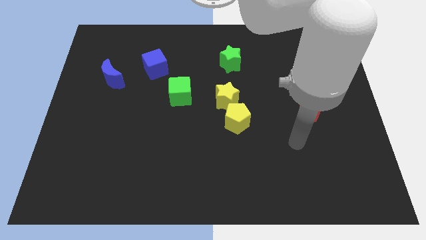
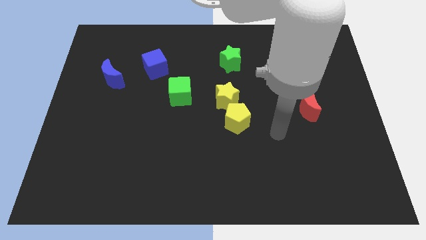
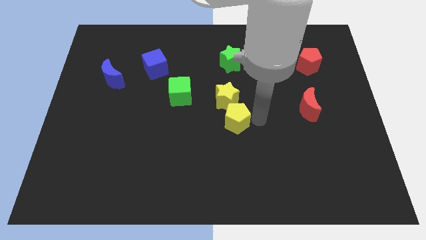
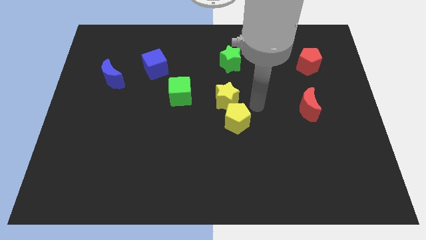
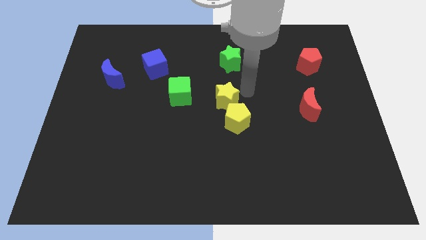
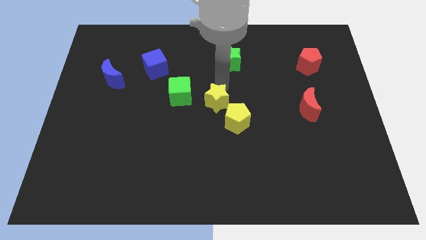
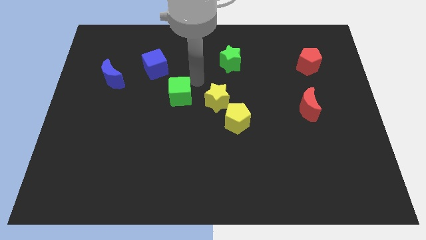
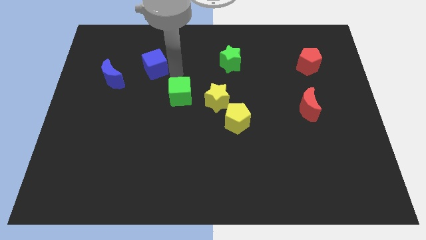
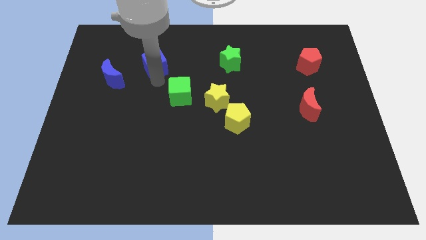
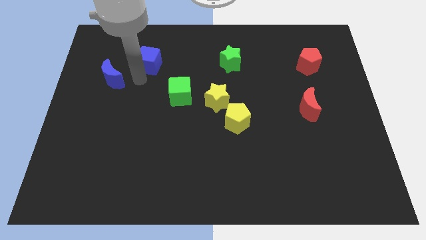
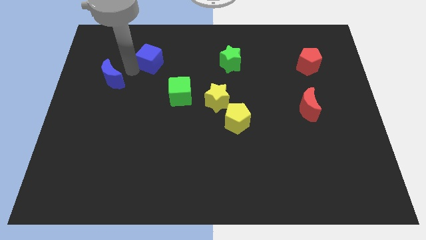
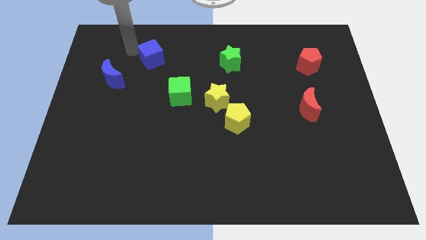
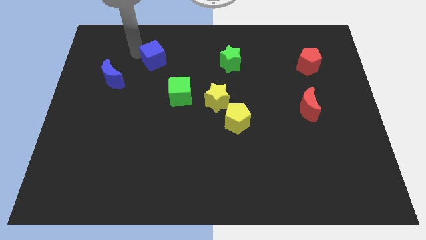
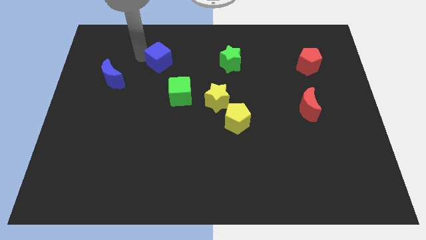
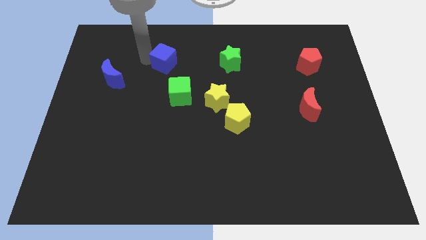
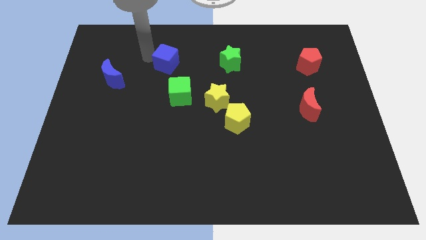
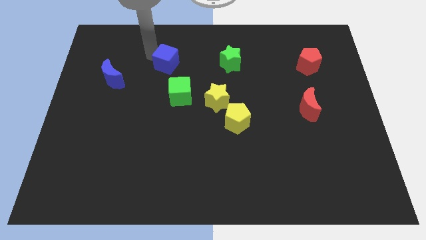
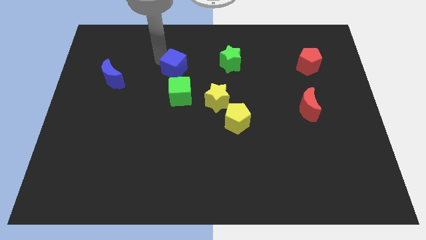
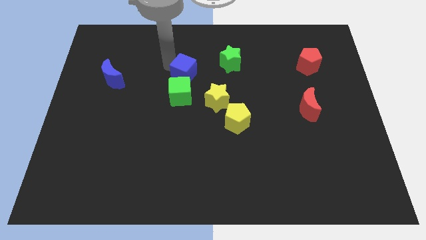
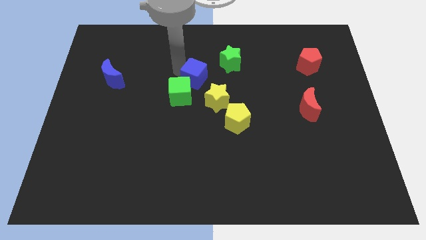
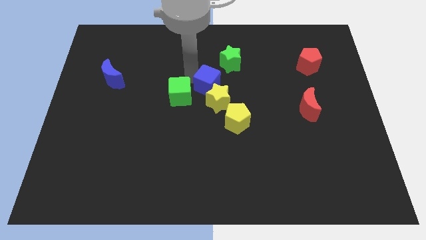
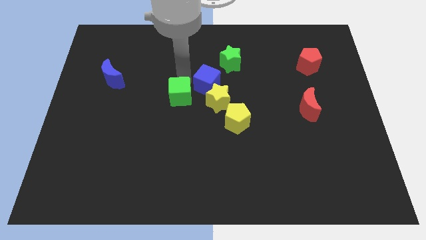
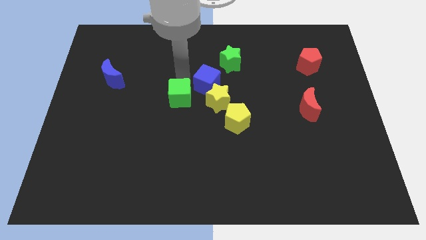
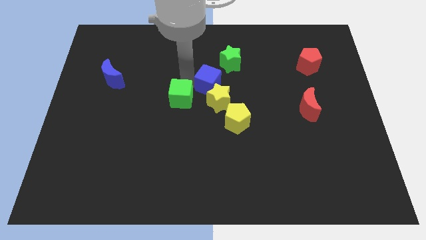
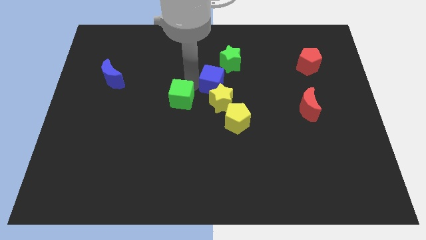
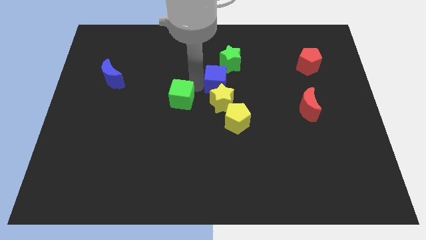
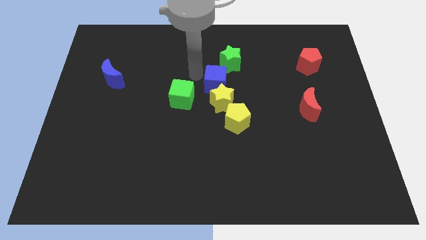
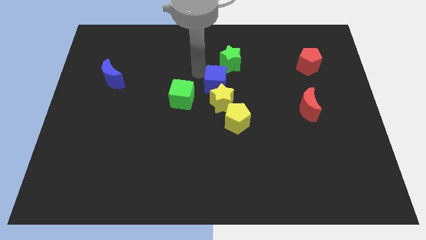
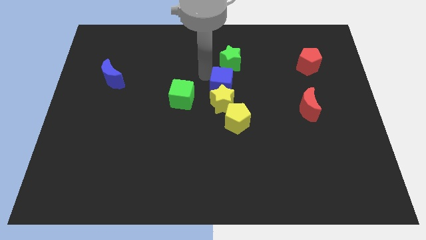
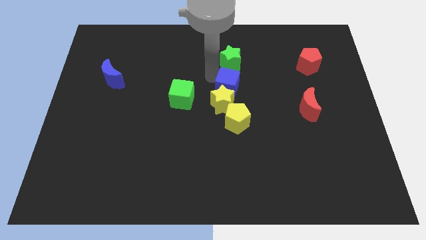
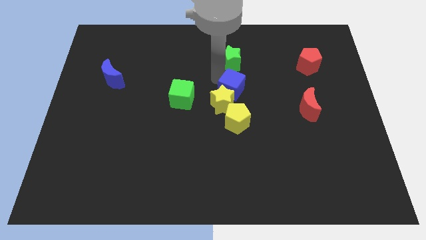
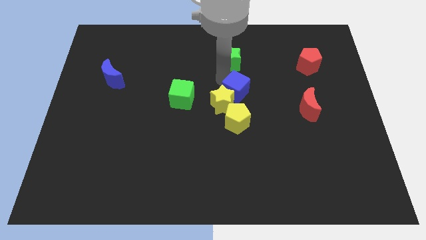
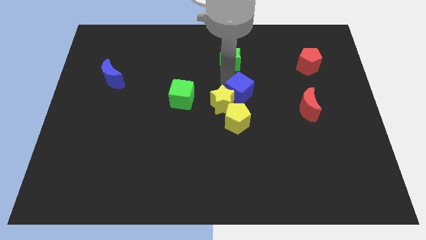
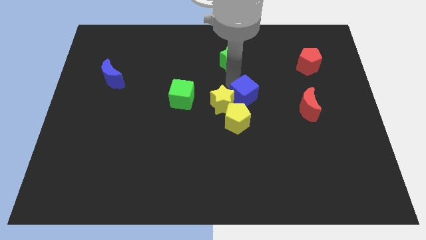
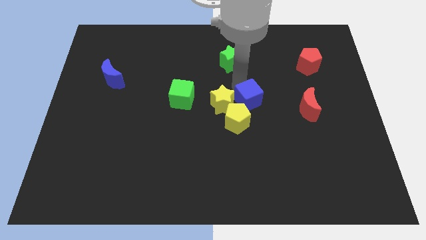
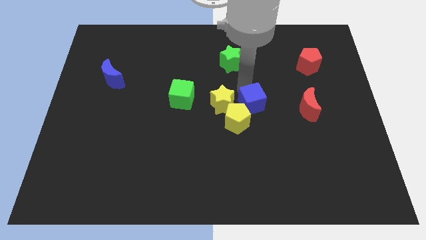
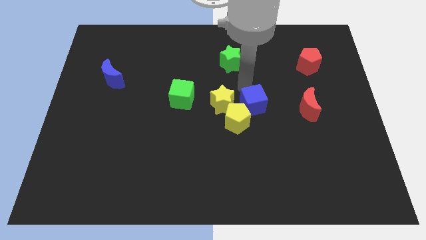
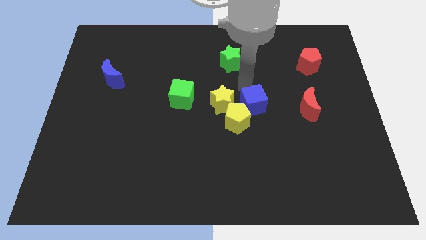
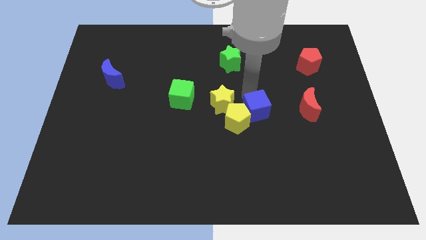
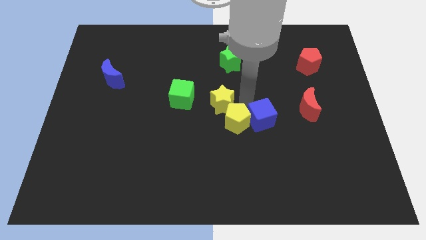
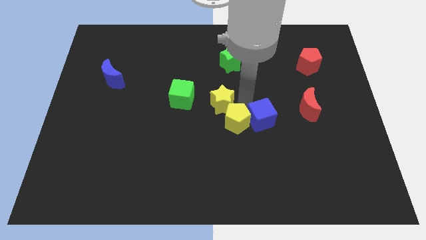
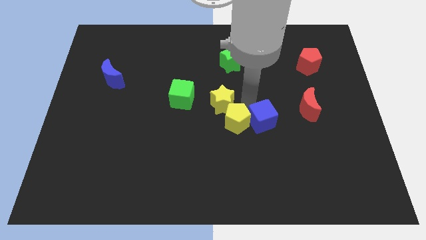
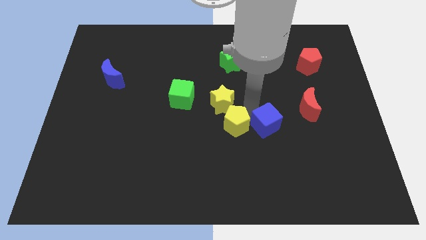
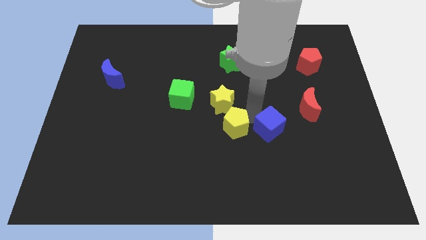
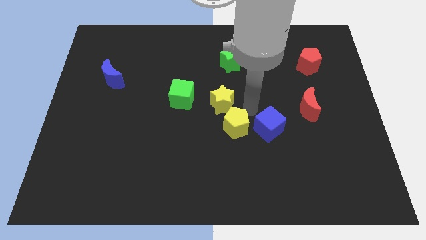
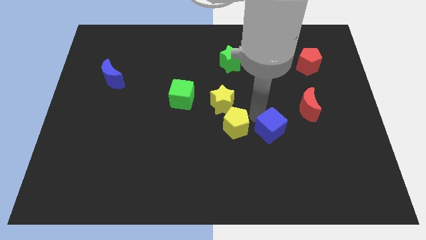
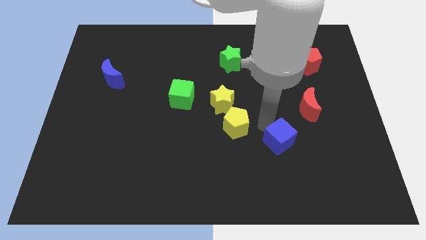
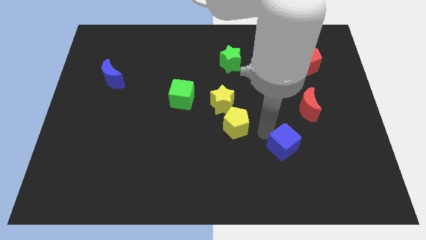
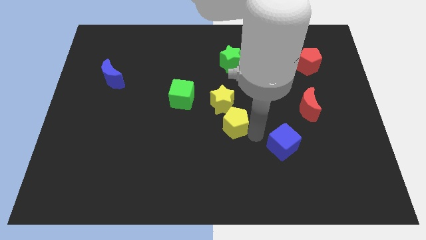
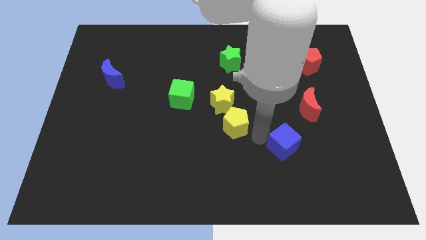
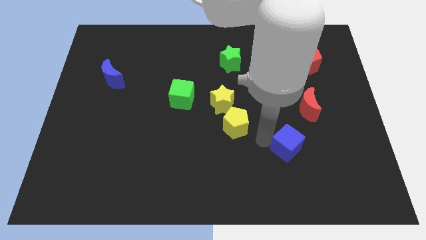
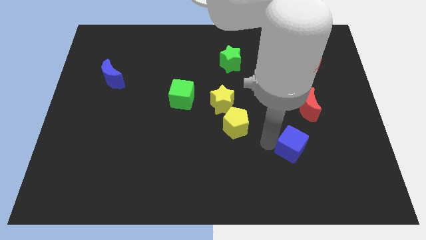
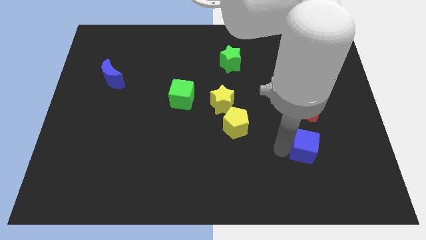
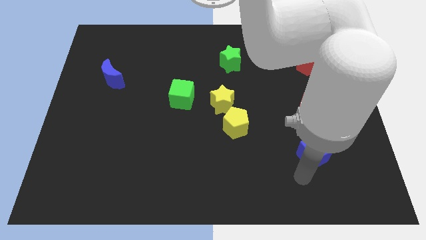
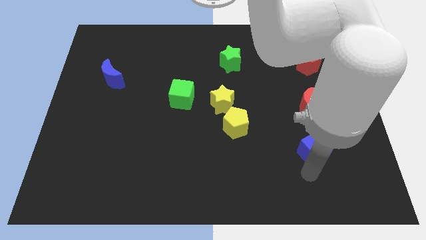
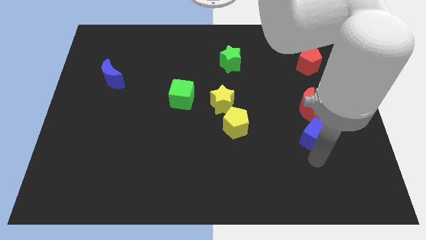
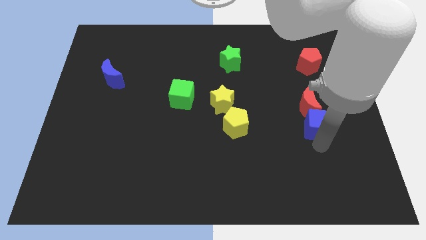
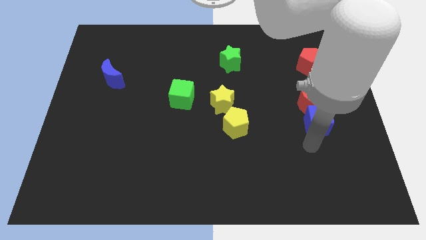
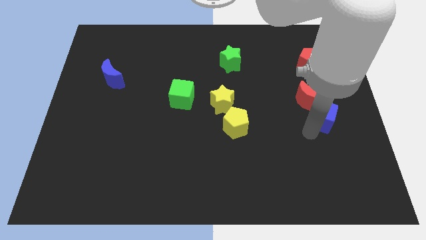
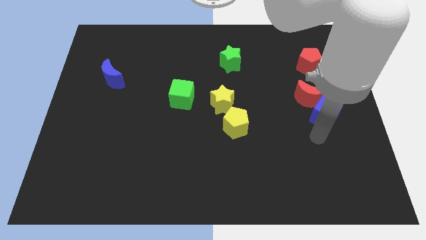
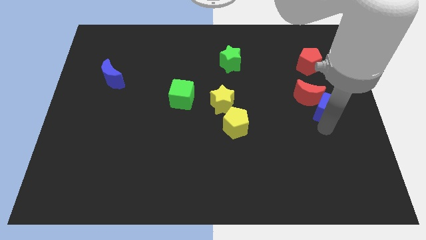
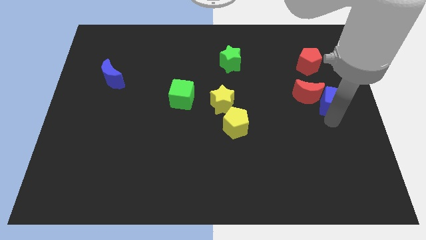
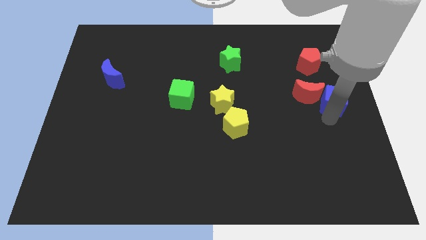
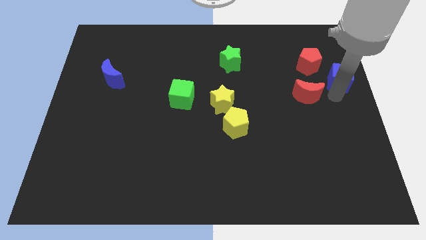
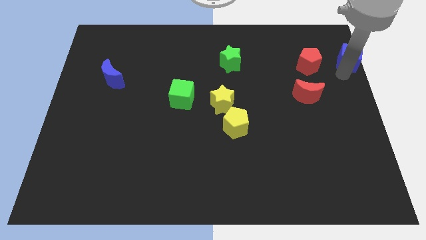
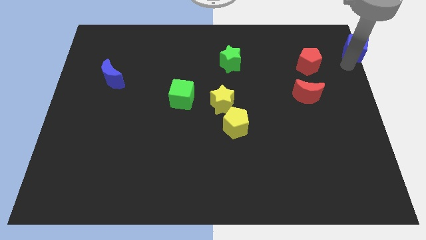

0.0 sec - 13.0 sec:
put the blue cube to the upper right corner

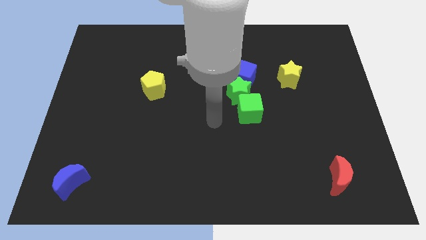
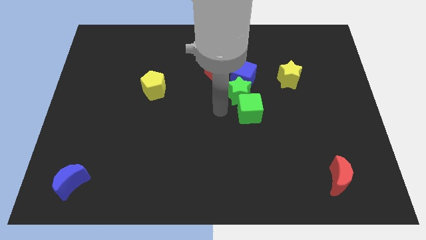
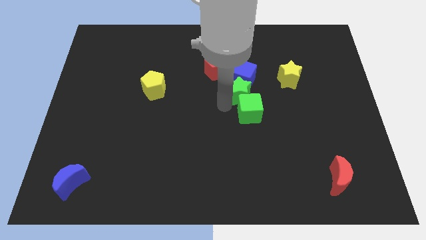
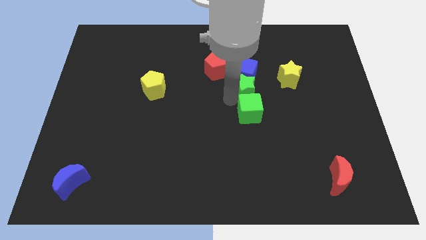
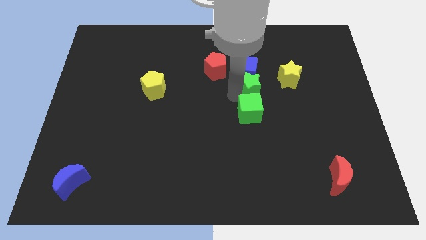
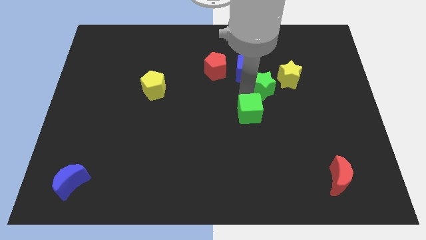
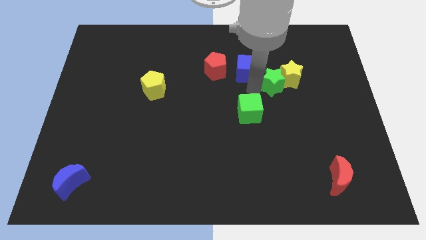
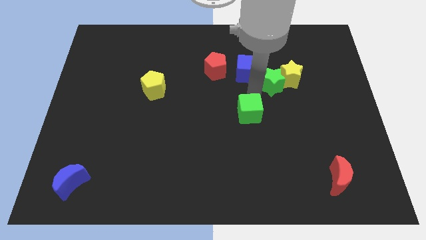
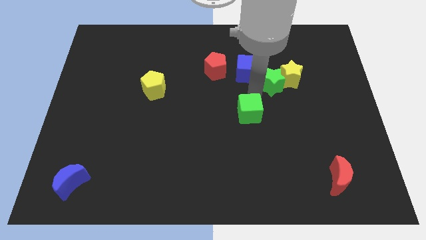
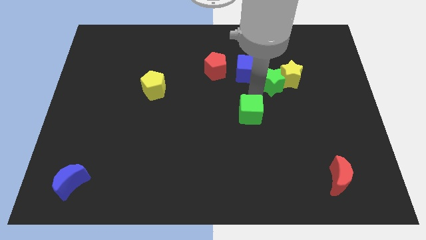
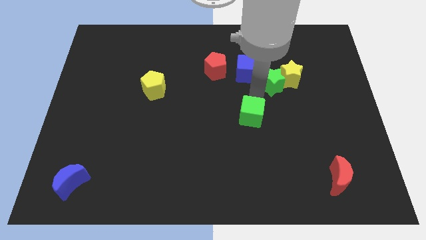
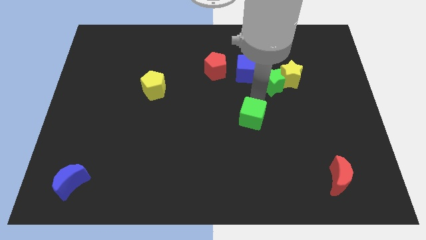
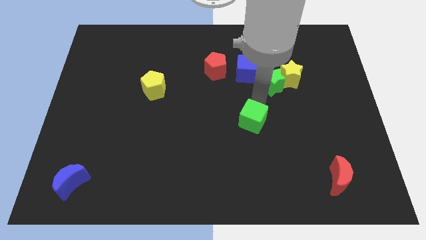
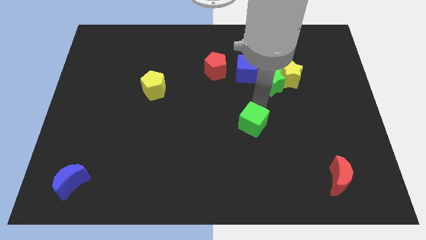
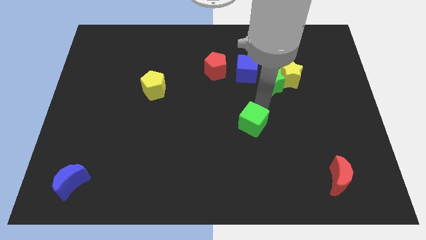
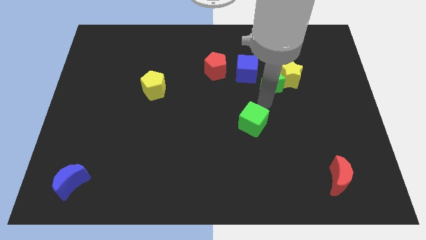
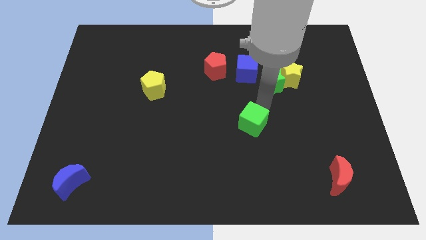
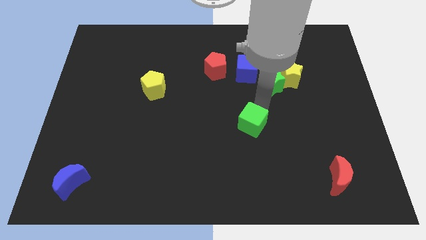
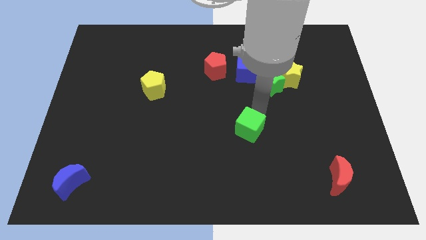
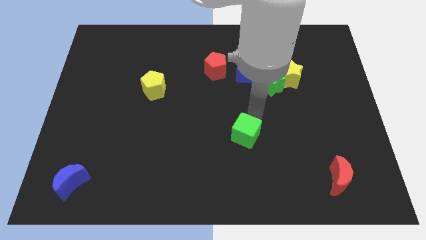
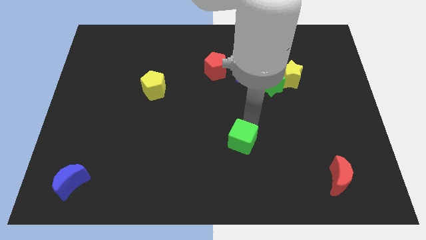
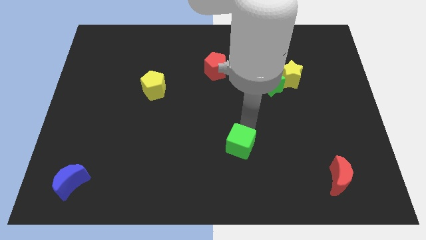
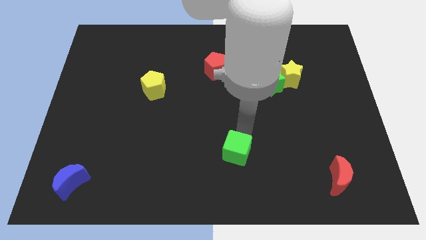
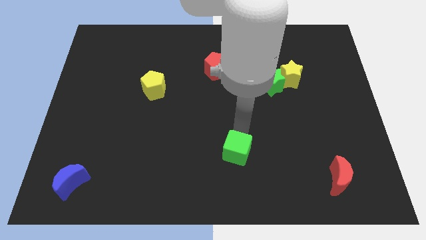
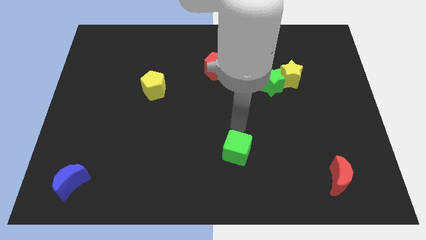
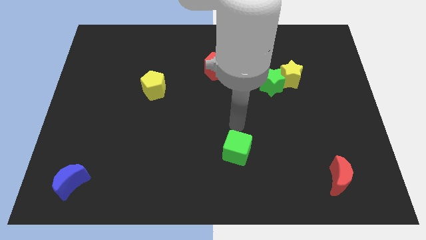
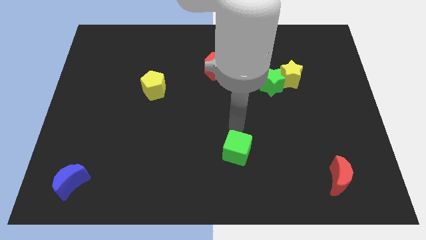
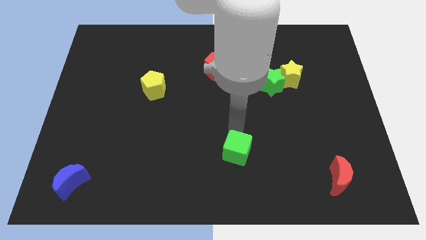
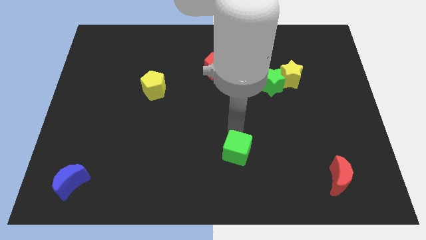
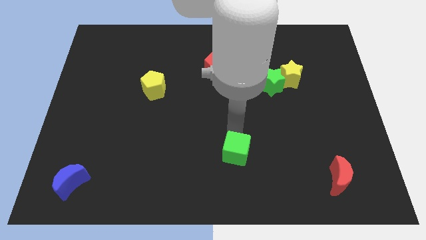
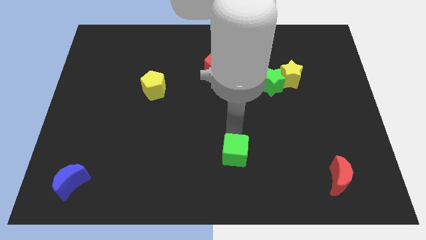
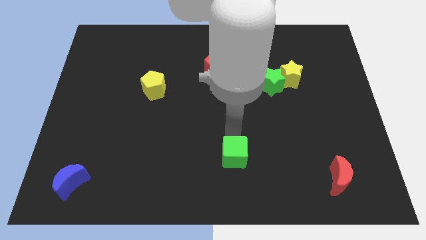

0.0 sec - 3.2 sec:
push the green cube to the bottom side
